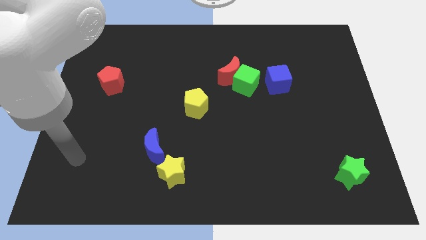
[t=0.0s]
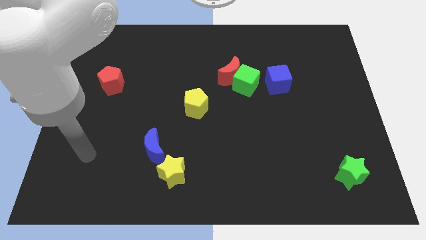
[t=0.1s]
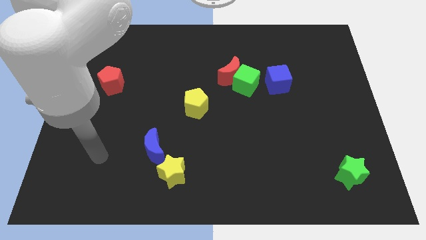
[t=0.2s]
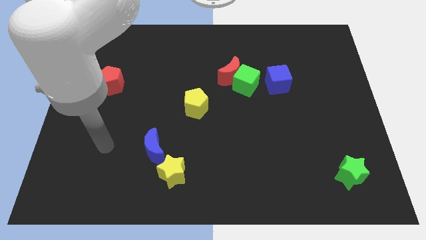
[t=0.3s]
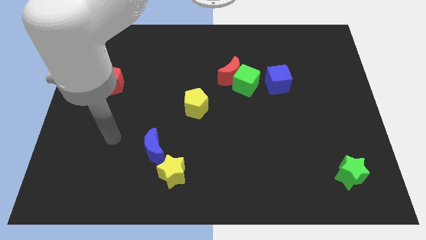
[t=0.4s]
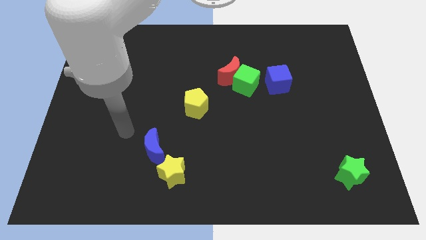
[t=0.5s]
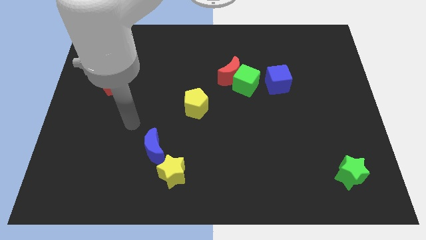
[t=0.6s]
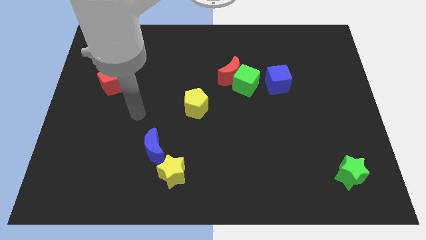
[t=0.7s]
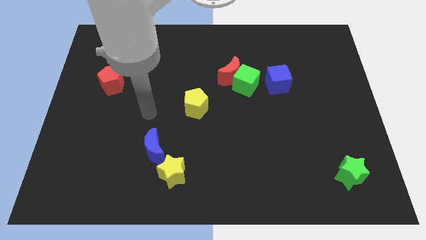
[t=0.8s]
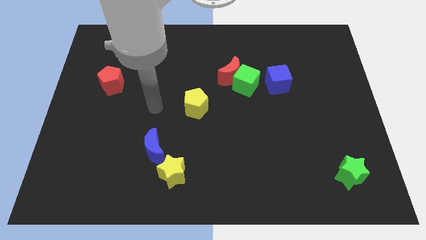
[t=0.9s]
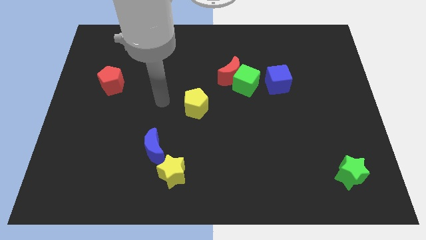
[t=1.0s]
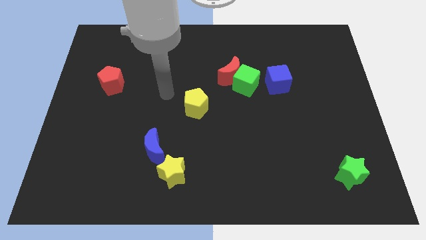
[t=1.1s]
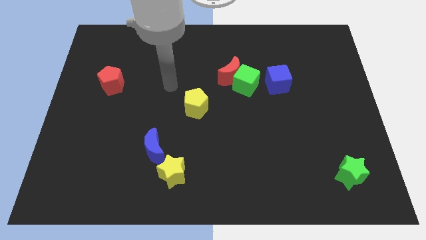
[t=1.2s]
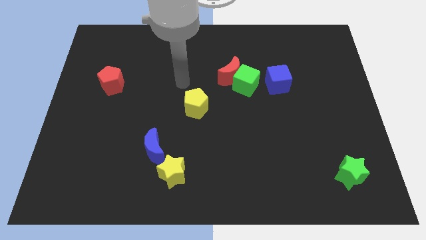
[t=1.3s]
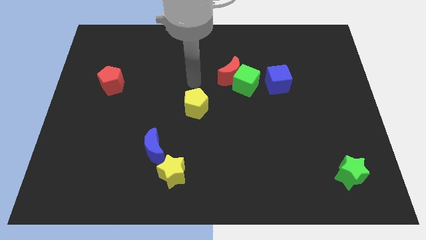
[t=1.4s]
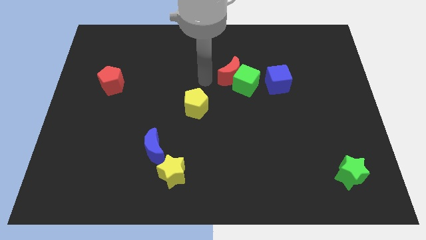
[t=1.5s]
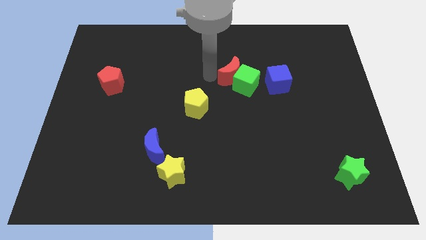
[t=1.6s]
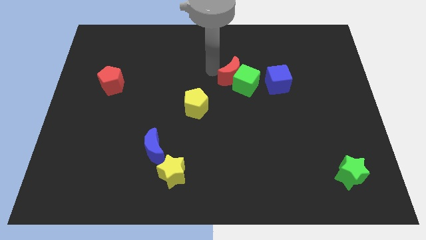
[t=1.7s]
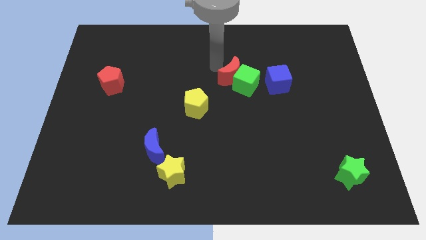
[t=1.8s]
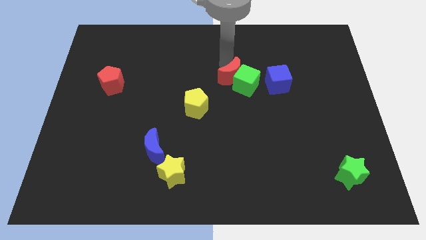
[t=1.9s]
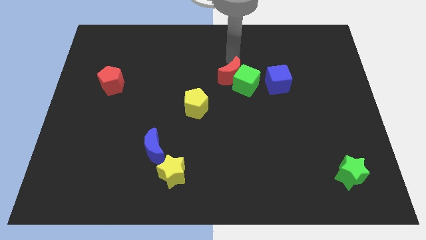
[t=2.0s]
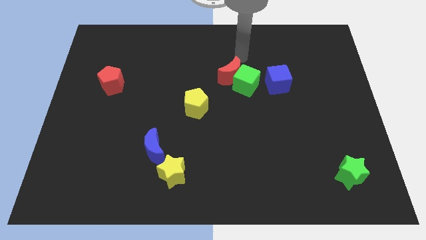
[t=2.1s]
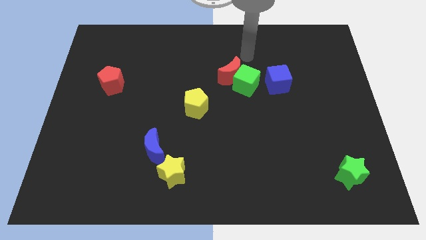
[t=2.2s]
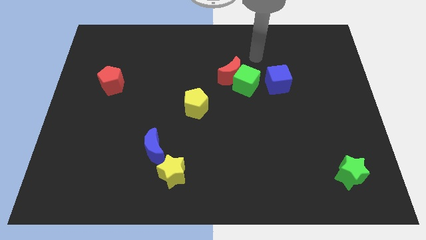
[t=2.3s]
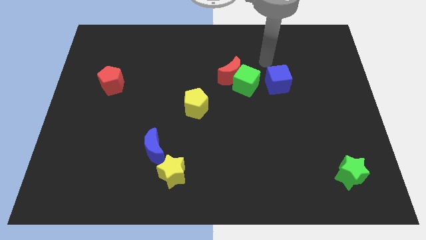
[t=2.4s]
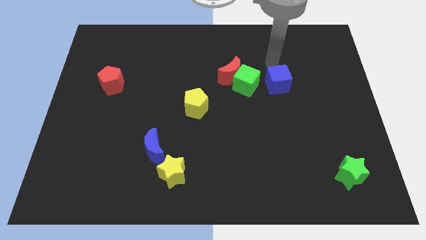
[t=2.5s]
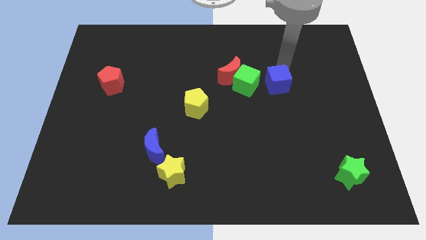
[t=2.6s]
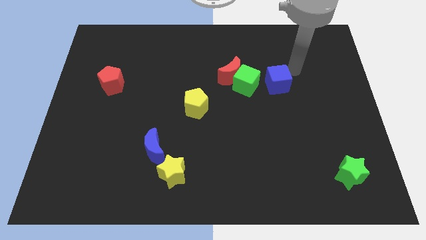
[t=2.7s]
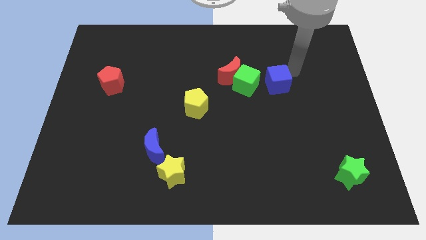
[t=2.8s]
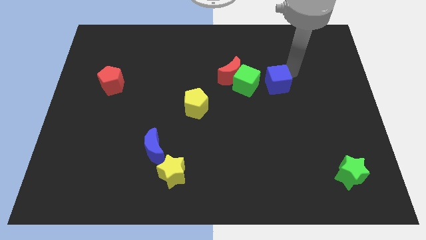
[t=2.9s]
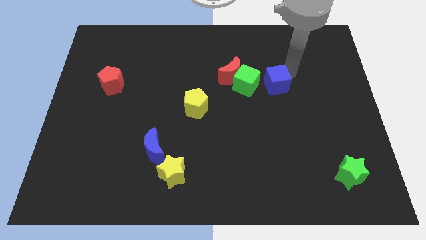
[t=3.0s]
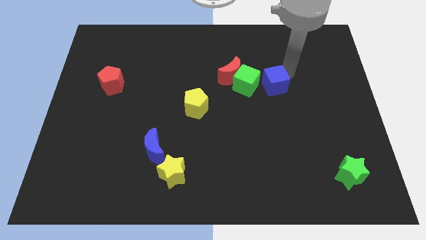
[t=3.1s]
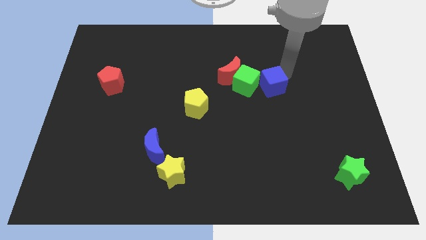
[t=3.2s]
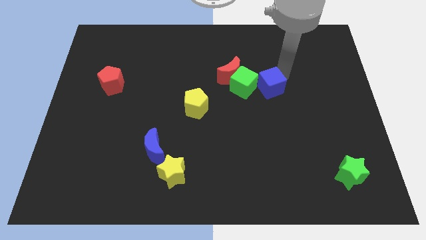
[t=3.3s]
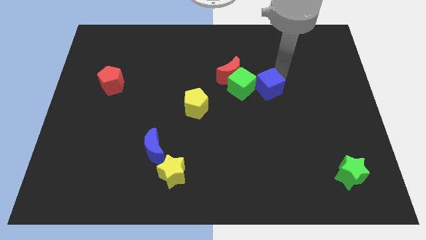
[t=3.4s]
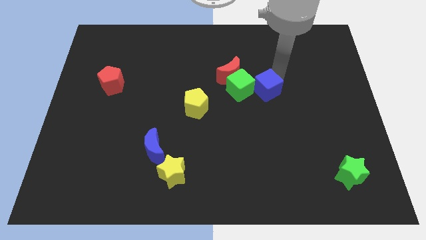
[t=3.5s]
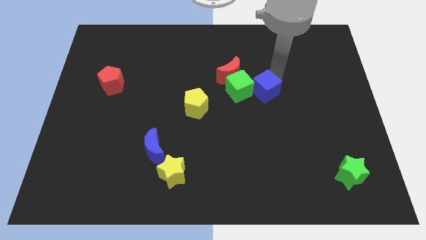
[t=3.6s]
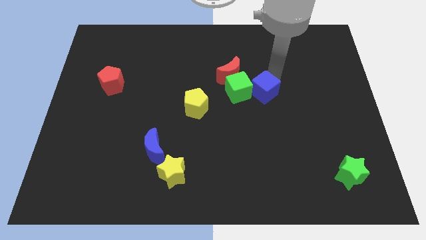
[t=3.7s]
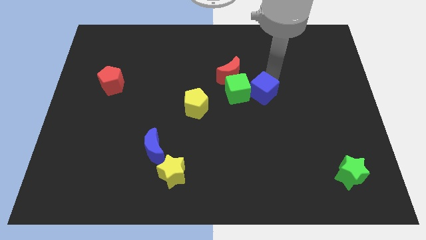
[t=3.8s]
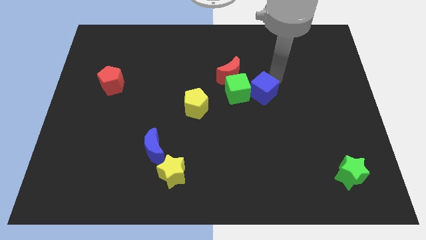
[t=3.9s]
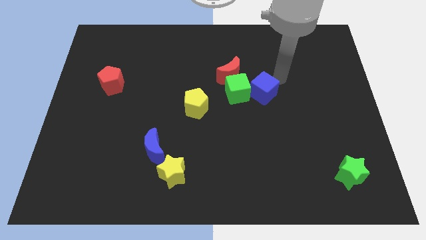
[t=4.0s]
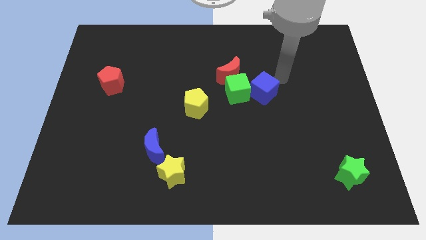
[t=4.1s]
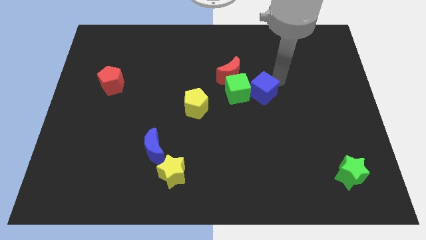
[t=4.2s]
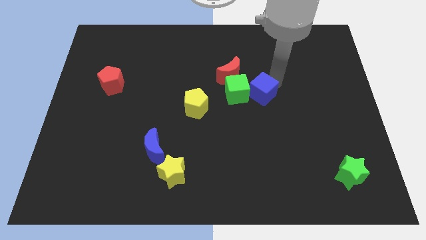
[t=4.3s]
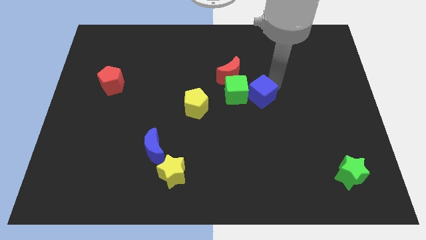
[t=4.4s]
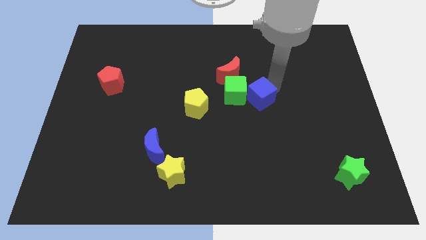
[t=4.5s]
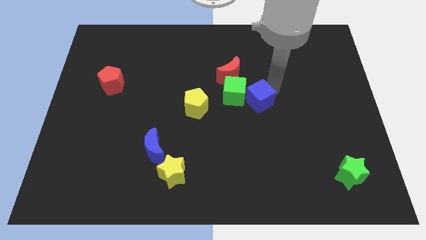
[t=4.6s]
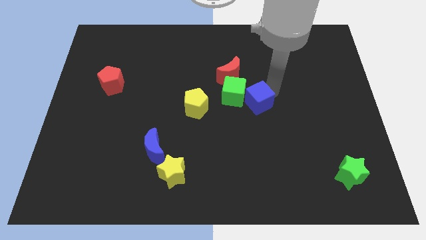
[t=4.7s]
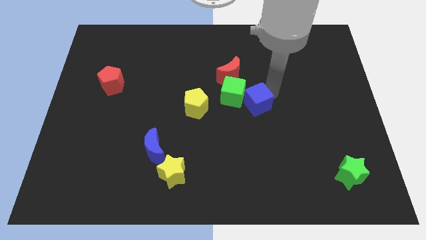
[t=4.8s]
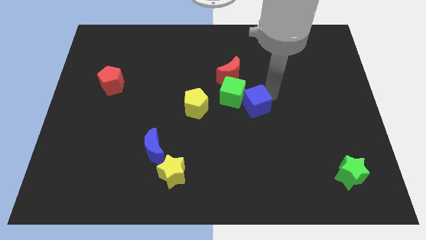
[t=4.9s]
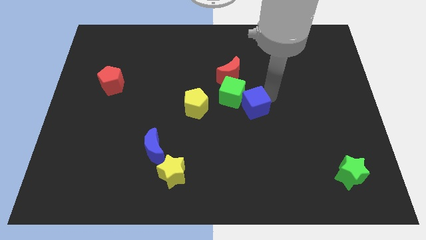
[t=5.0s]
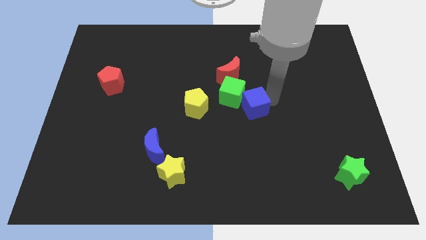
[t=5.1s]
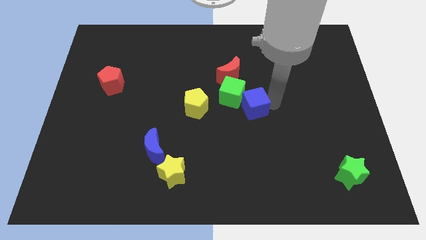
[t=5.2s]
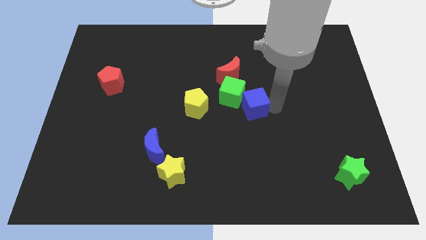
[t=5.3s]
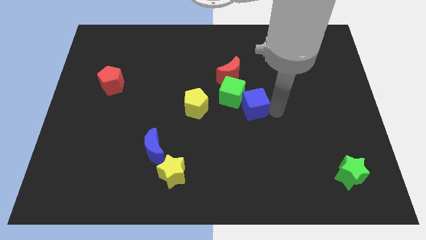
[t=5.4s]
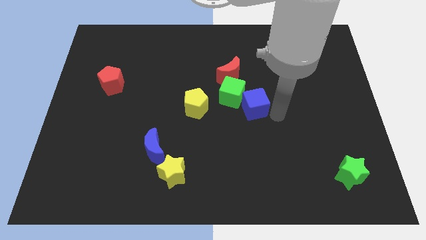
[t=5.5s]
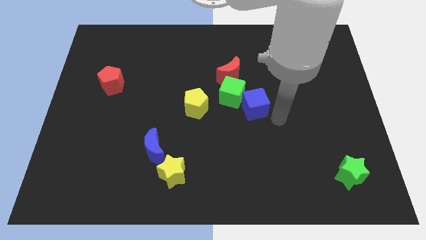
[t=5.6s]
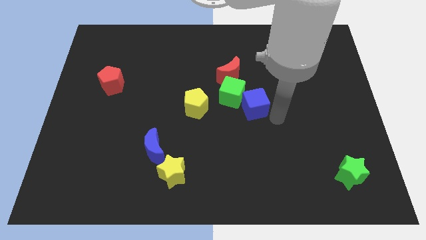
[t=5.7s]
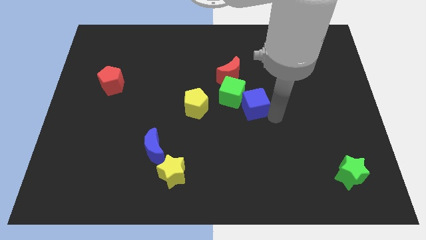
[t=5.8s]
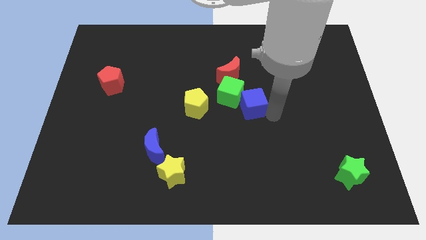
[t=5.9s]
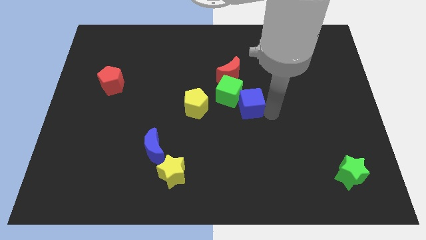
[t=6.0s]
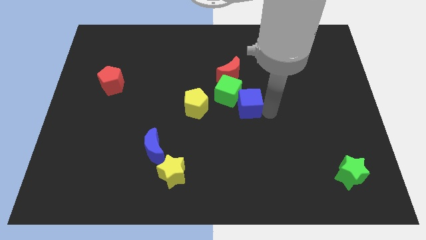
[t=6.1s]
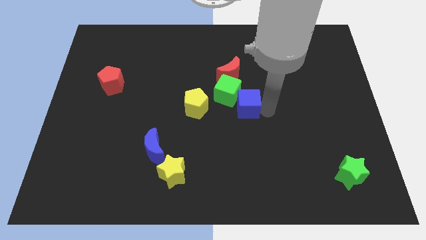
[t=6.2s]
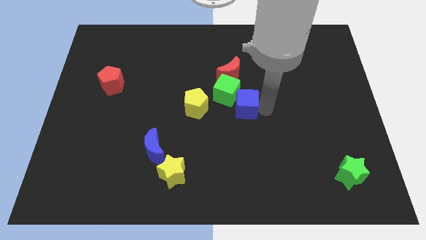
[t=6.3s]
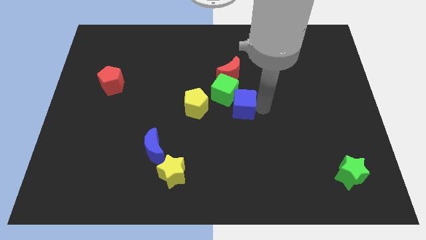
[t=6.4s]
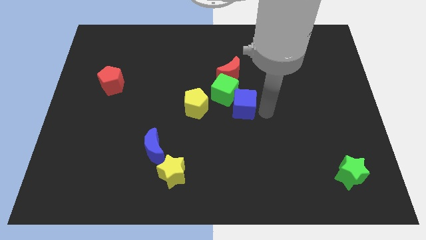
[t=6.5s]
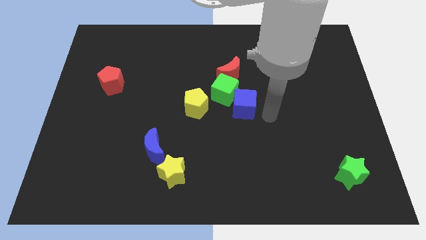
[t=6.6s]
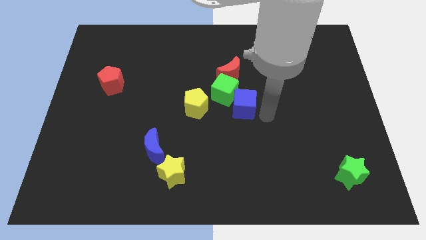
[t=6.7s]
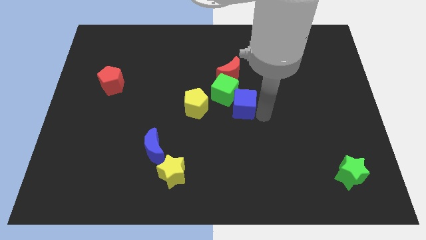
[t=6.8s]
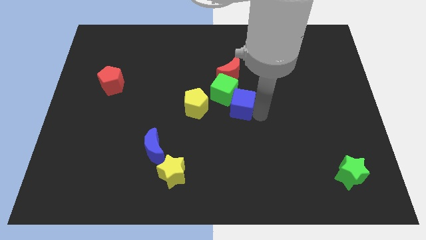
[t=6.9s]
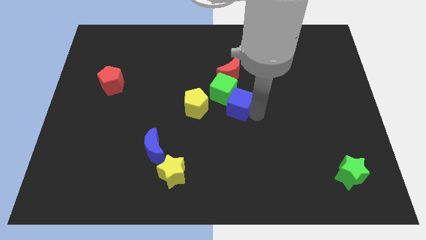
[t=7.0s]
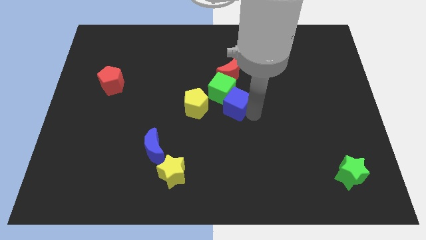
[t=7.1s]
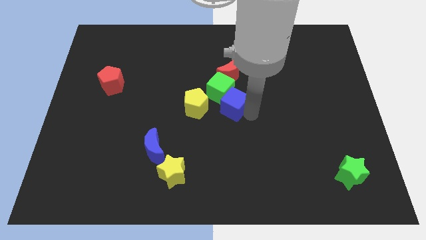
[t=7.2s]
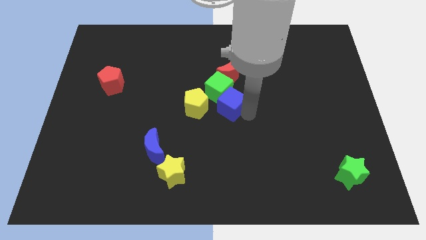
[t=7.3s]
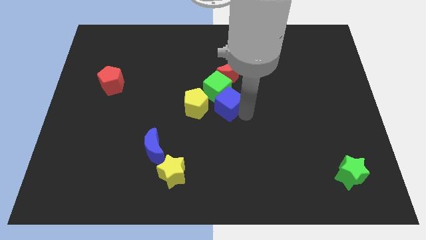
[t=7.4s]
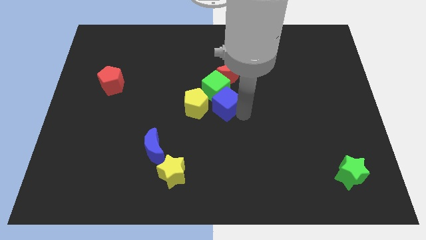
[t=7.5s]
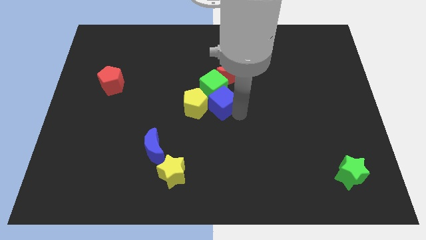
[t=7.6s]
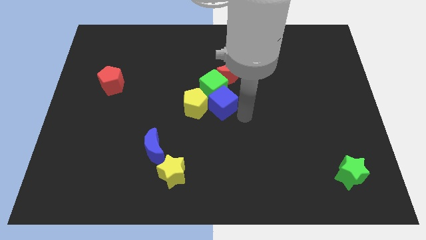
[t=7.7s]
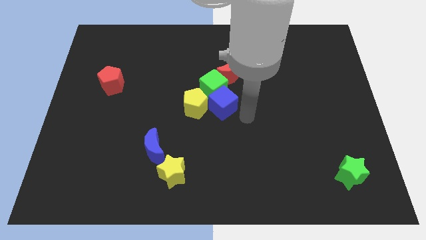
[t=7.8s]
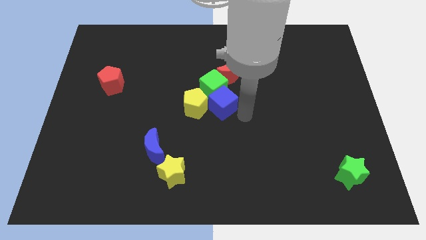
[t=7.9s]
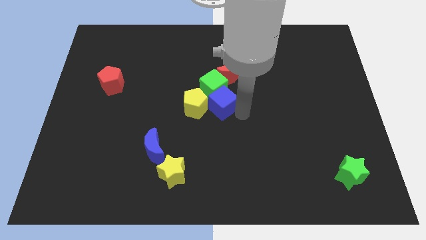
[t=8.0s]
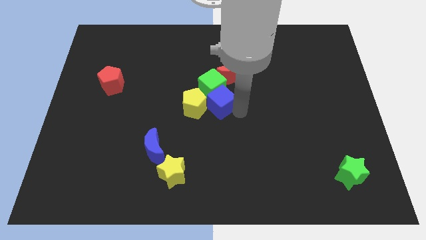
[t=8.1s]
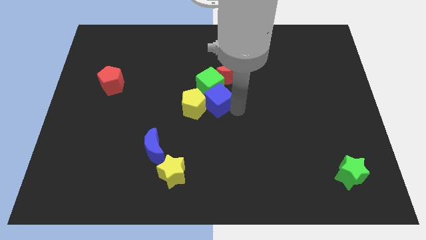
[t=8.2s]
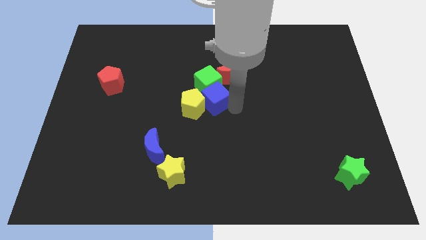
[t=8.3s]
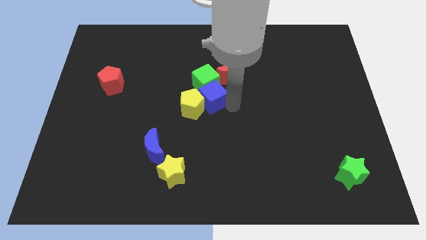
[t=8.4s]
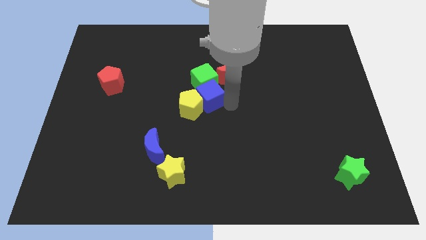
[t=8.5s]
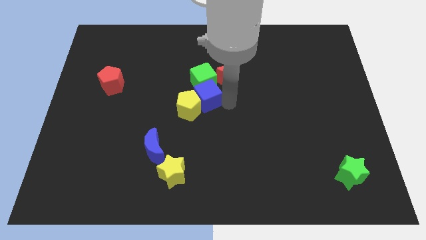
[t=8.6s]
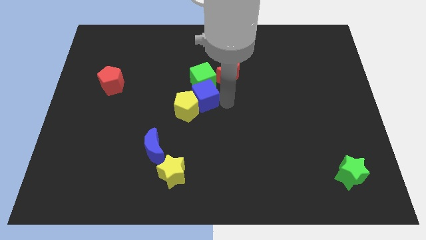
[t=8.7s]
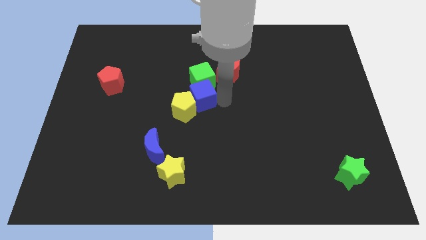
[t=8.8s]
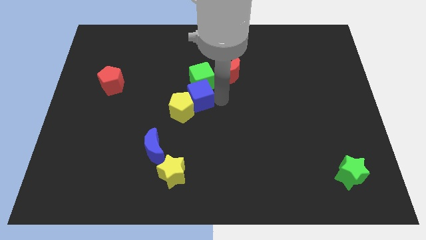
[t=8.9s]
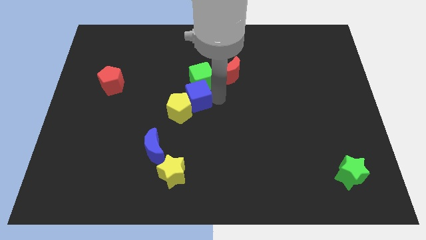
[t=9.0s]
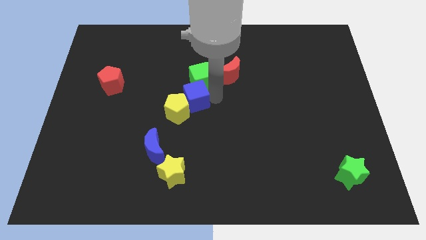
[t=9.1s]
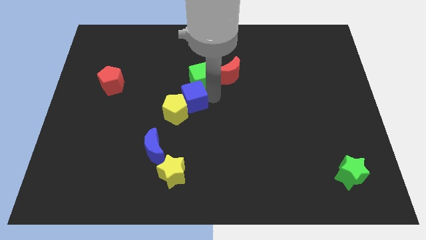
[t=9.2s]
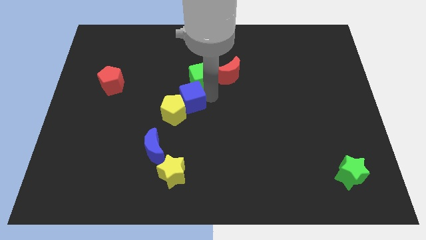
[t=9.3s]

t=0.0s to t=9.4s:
move the blue cube to the left
